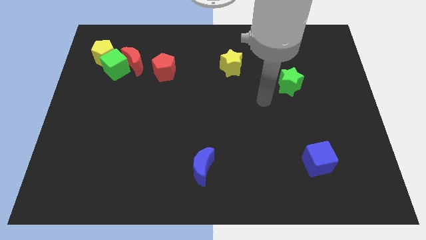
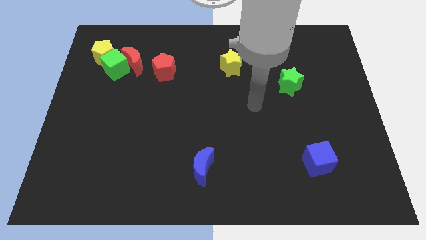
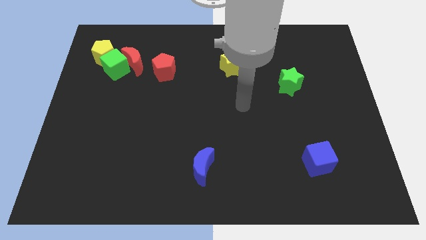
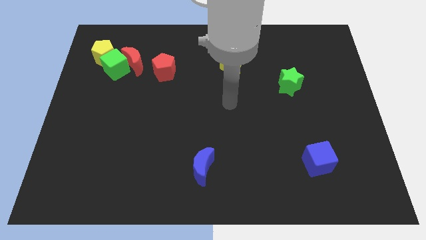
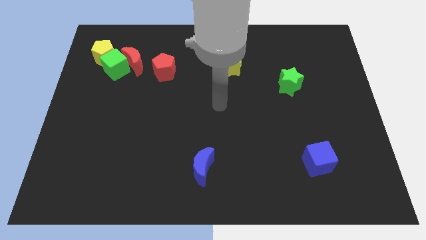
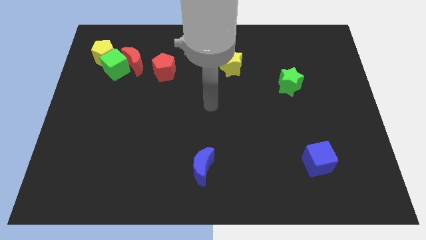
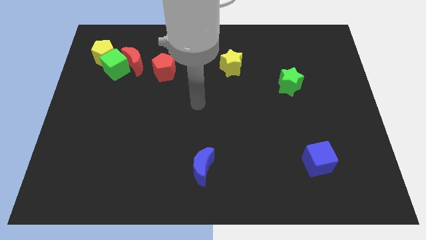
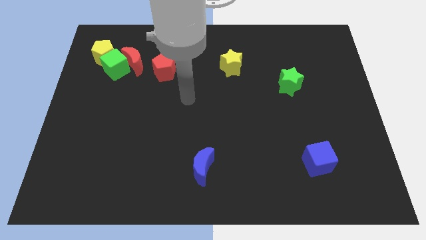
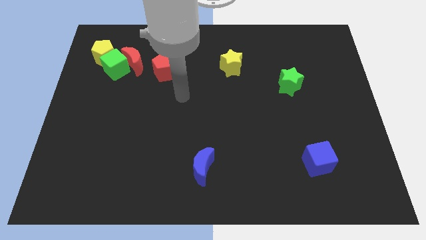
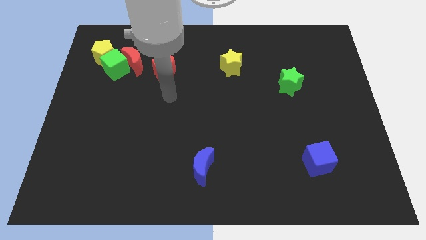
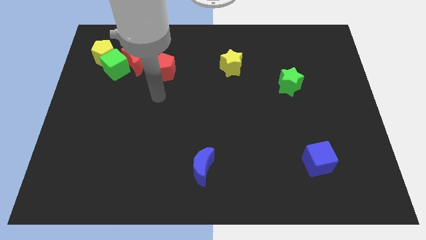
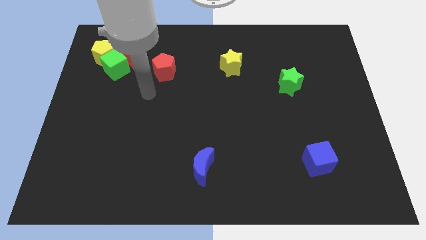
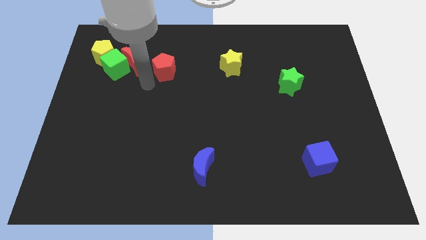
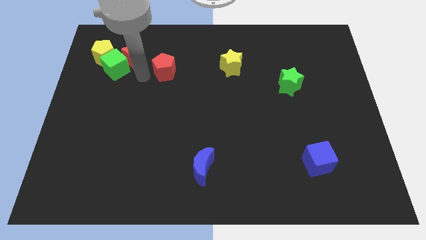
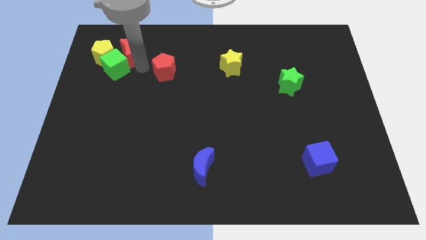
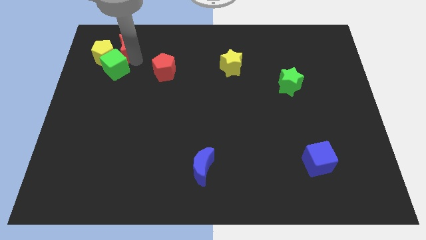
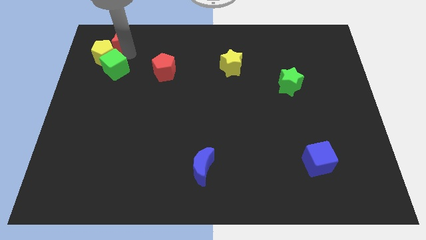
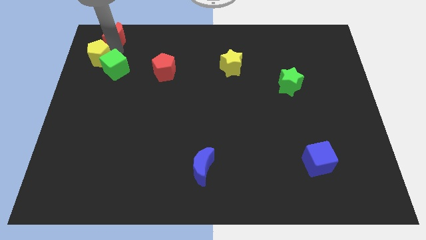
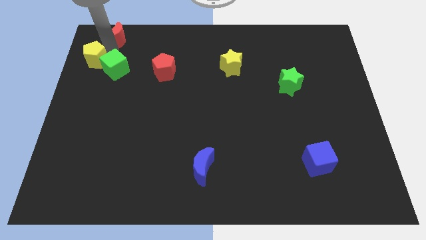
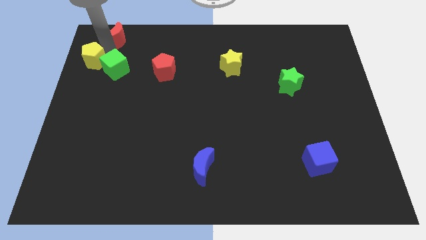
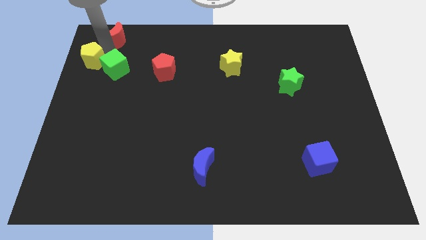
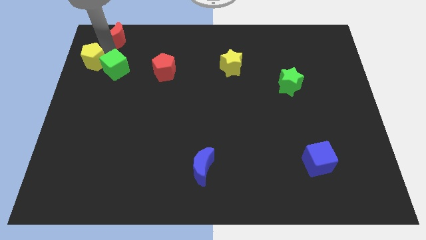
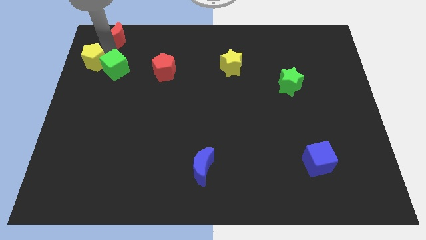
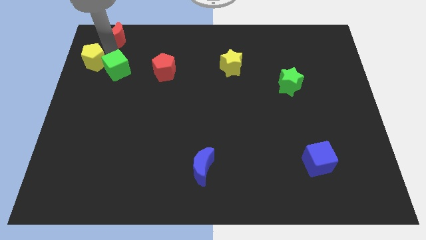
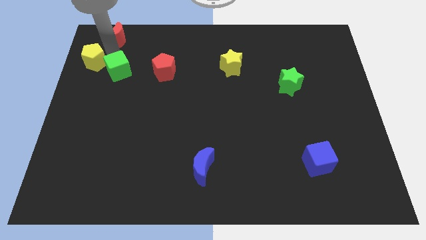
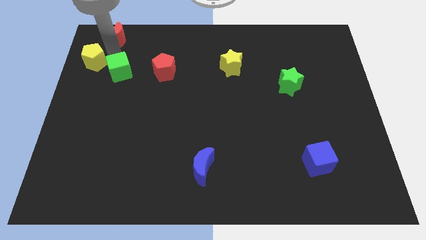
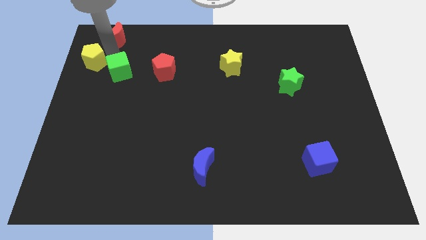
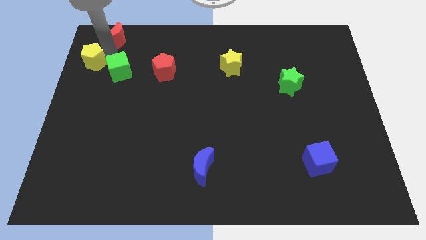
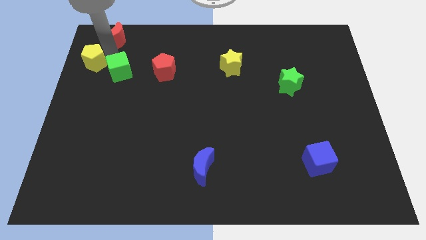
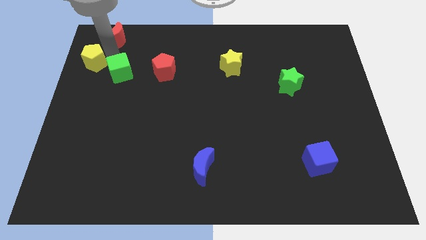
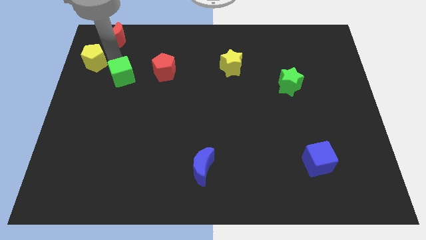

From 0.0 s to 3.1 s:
move the green cube away from the red moon and yellow pentagon

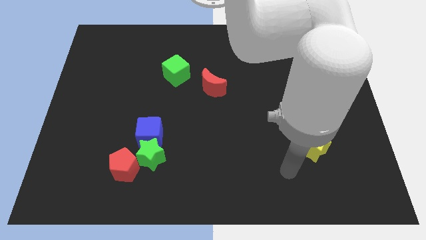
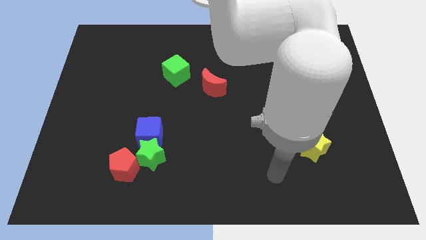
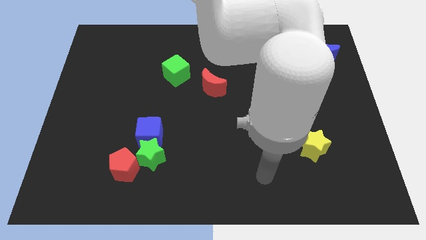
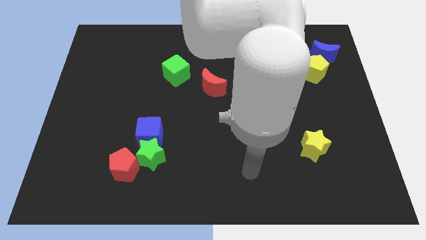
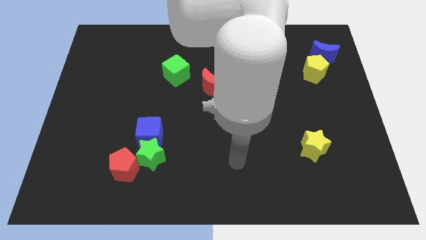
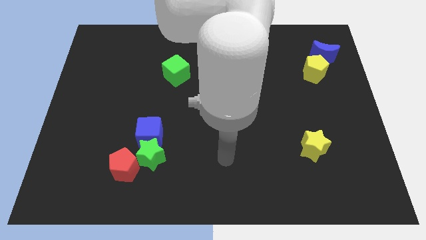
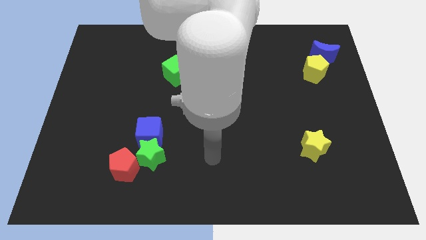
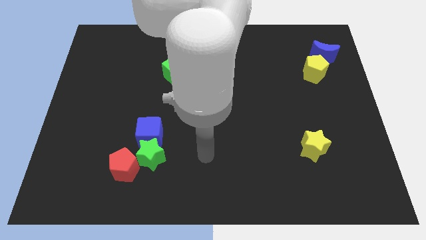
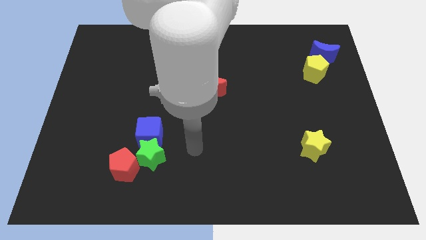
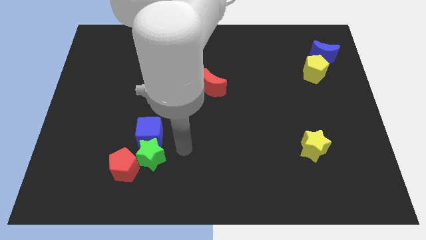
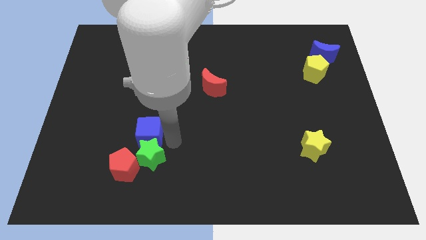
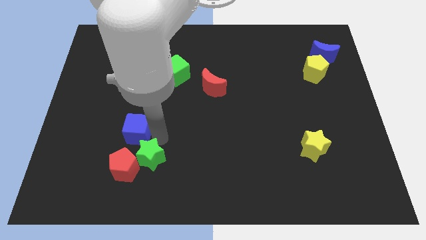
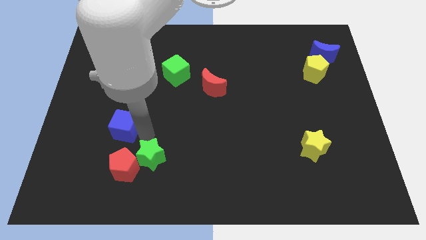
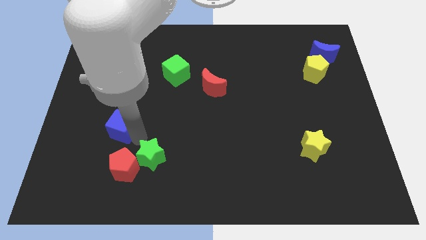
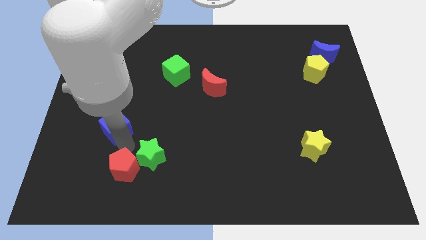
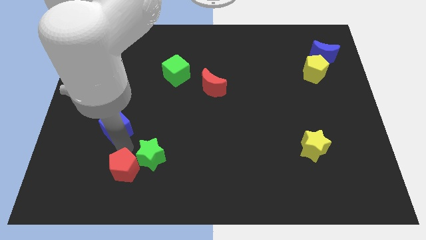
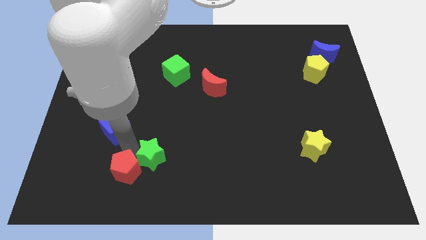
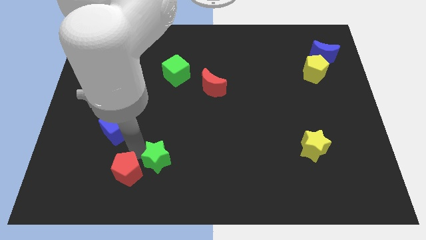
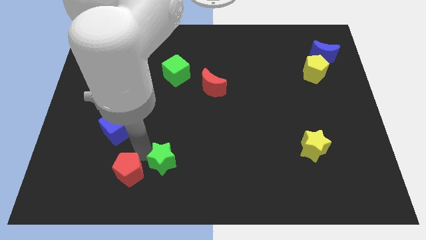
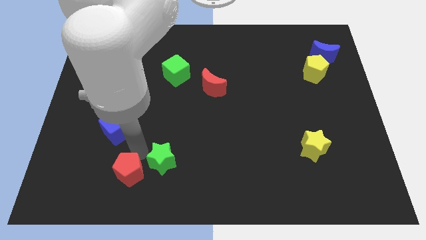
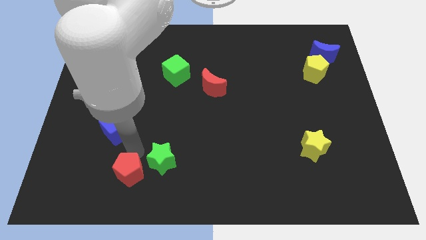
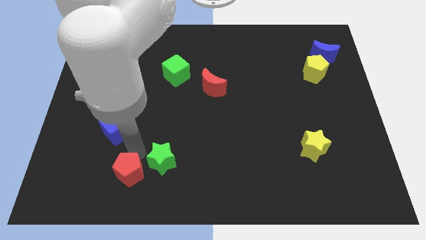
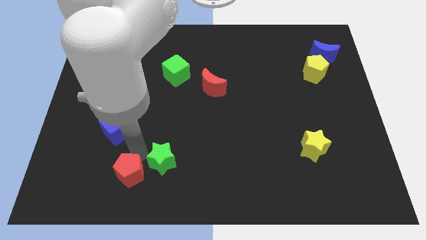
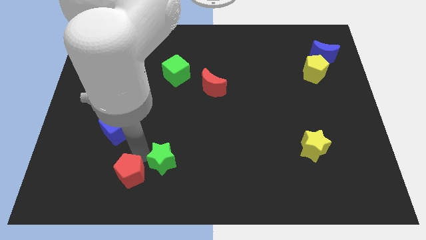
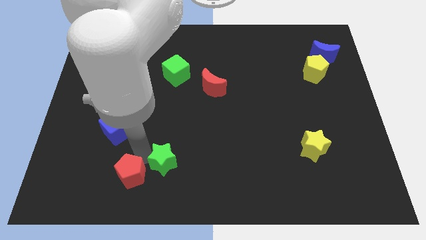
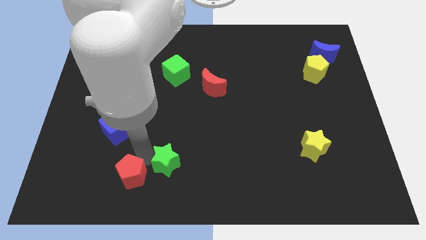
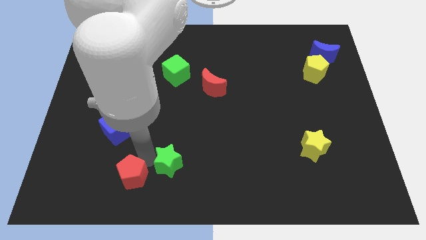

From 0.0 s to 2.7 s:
pull the green star apart from the blue cube and red pentagon

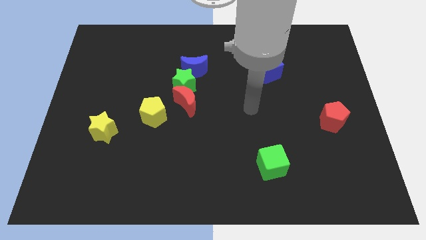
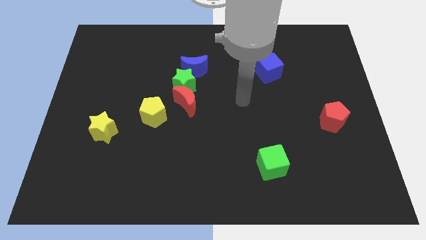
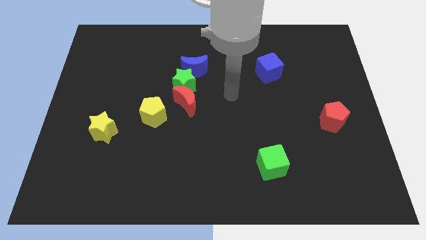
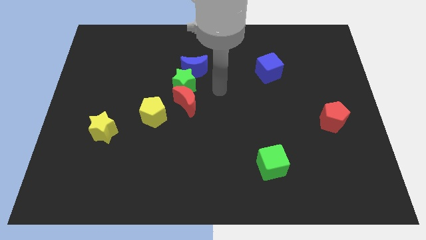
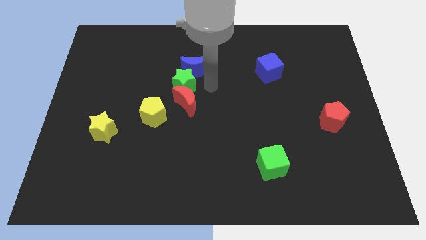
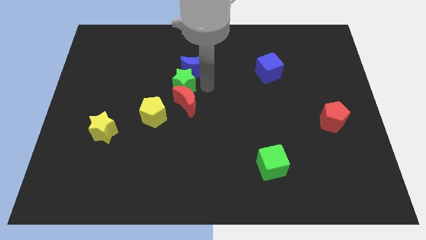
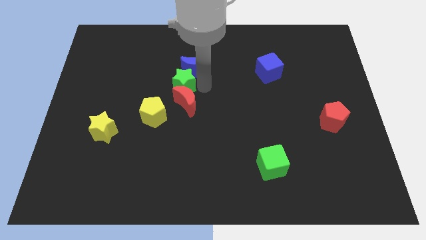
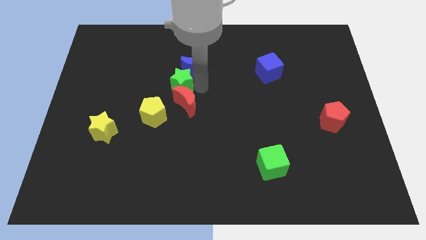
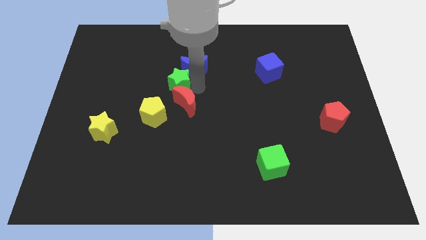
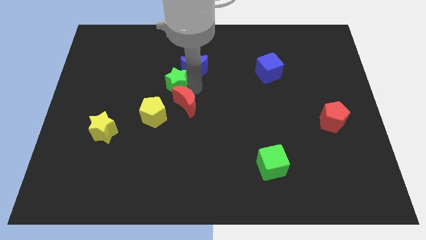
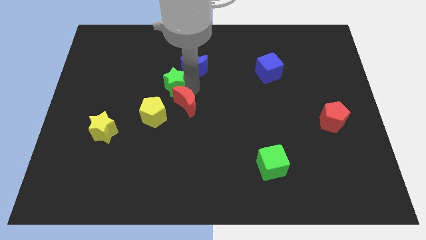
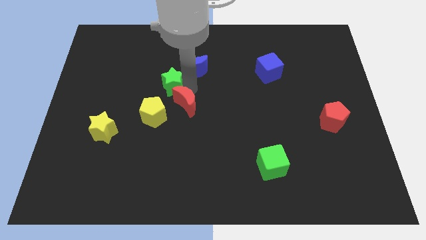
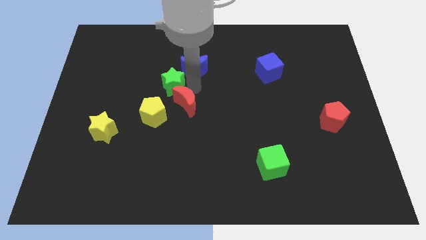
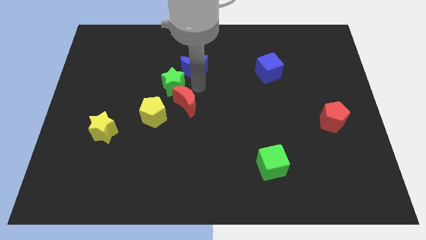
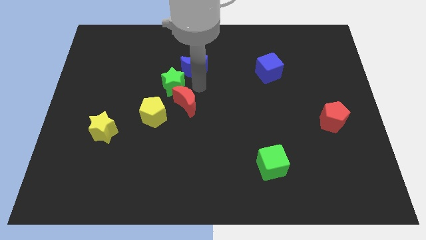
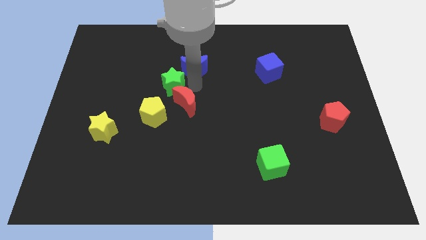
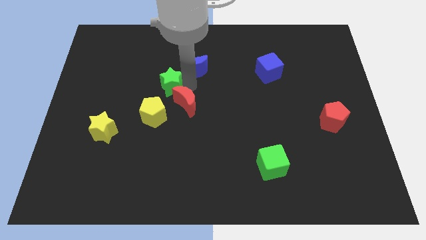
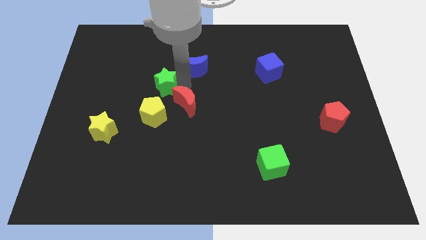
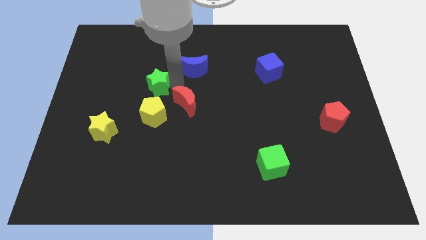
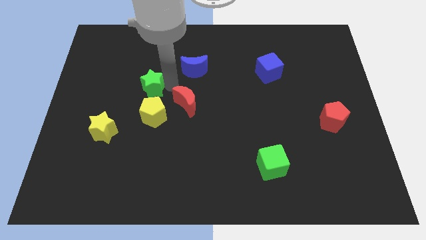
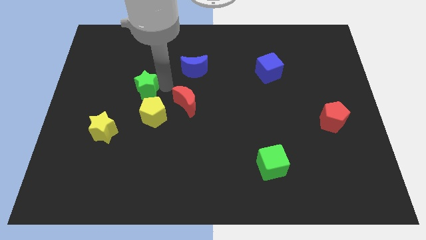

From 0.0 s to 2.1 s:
pull the green star apart from the red moon and blue moon

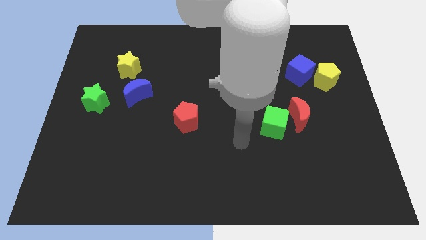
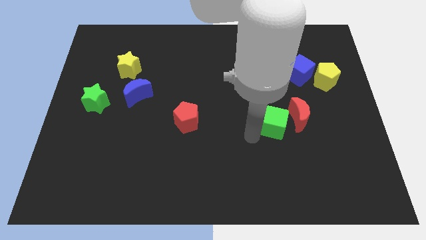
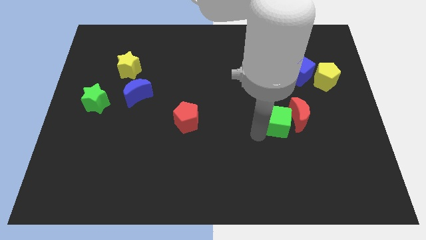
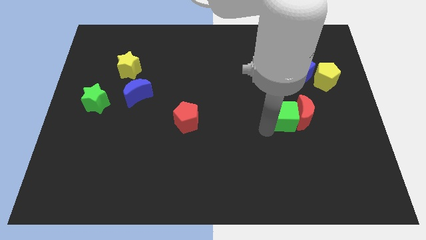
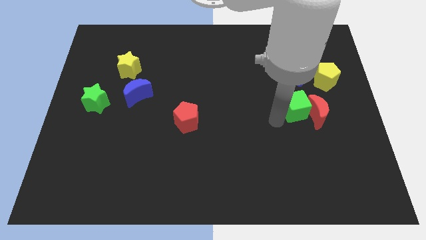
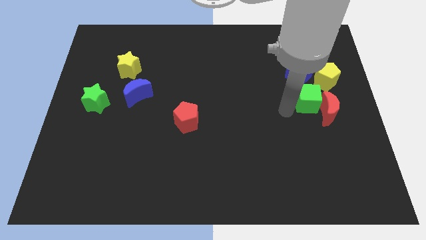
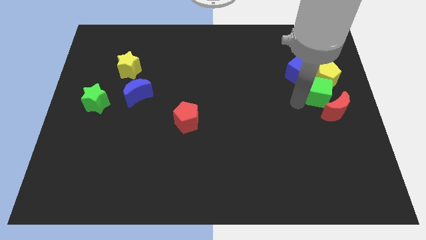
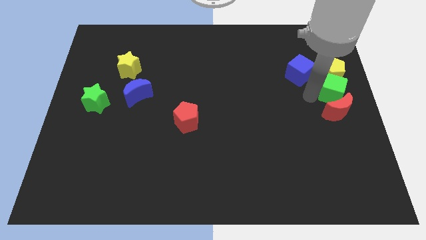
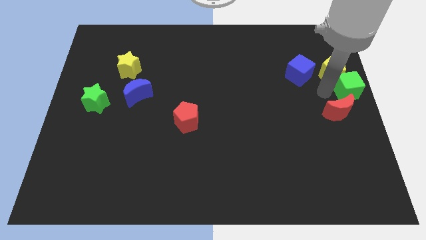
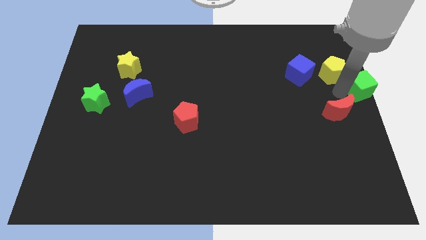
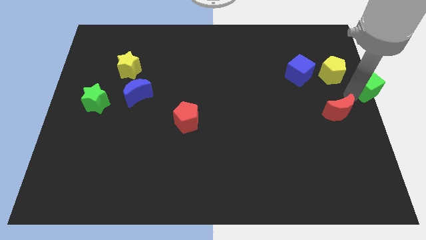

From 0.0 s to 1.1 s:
move the red moon away from the green cube

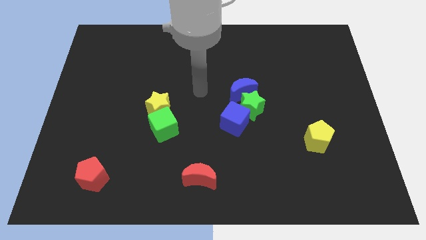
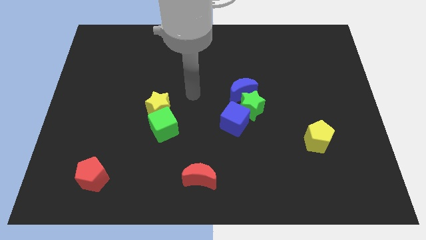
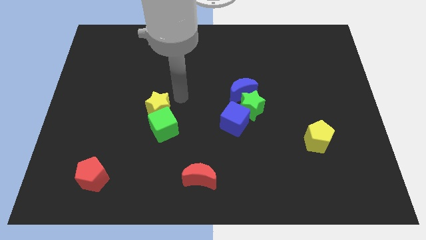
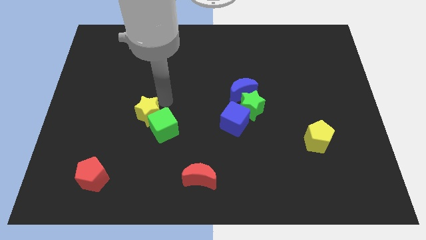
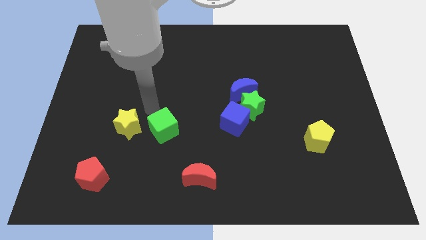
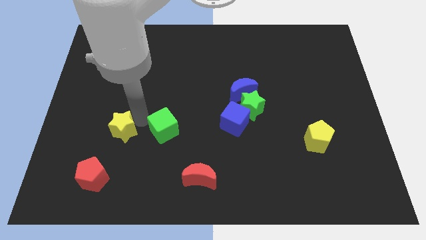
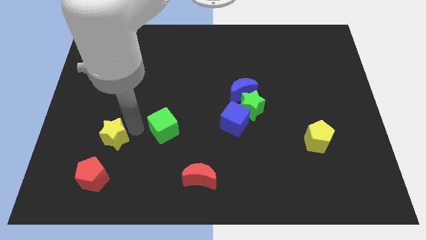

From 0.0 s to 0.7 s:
separate the green cube from the yellow star
